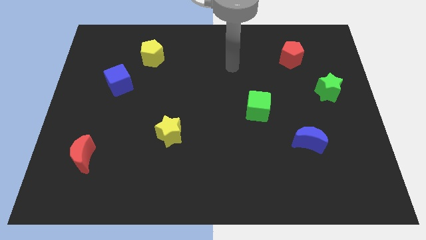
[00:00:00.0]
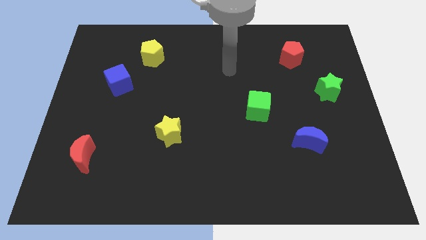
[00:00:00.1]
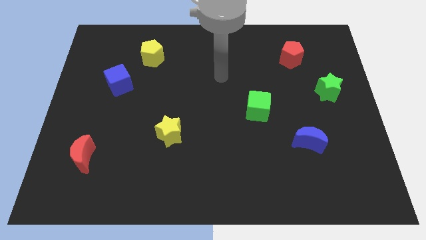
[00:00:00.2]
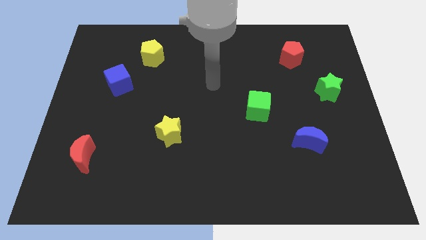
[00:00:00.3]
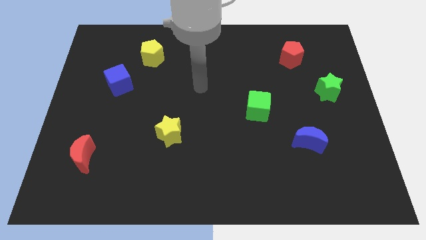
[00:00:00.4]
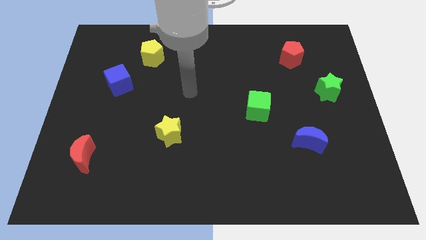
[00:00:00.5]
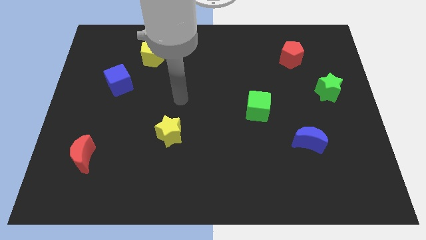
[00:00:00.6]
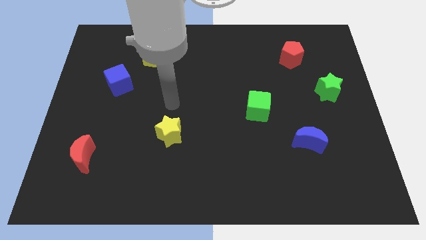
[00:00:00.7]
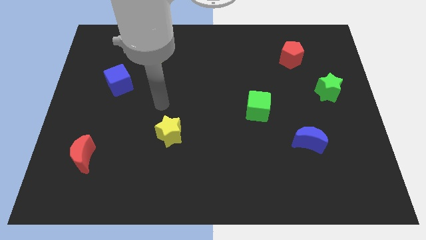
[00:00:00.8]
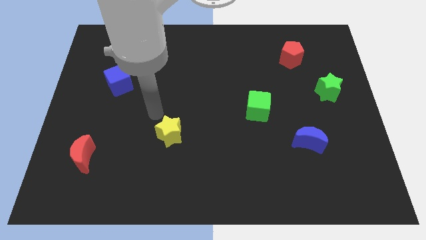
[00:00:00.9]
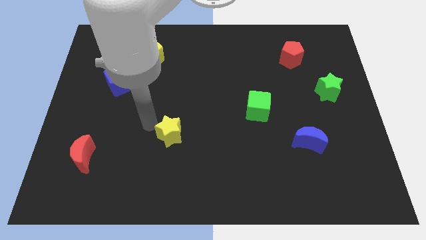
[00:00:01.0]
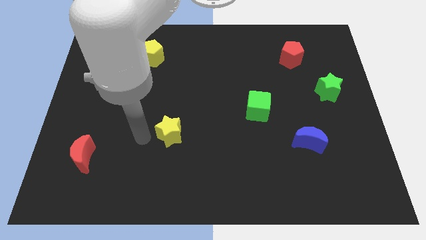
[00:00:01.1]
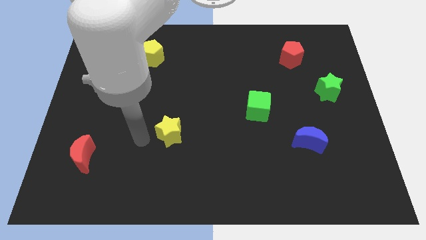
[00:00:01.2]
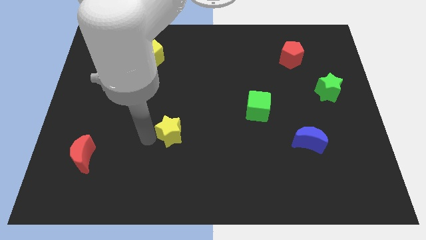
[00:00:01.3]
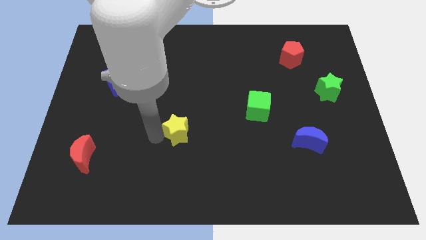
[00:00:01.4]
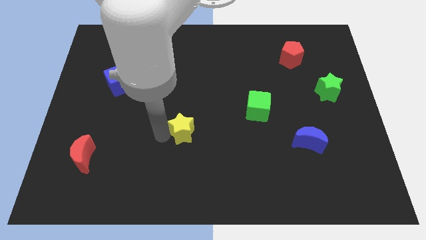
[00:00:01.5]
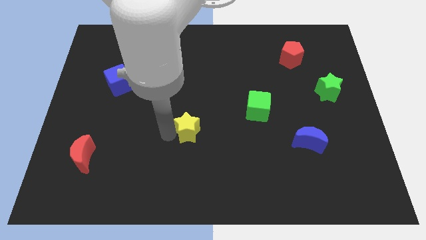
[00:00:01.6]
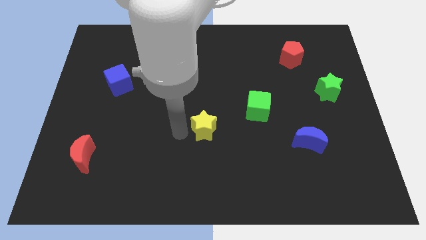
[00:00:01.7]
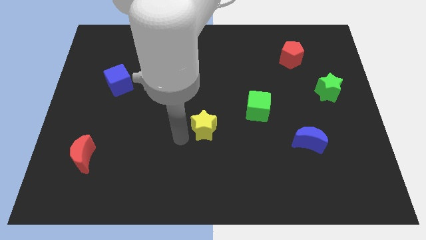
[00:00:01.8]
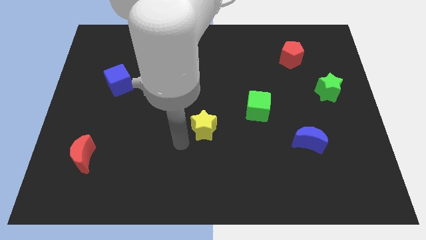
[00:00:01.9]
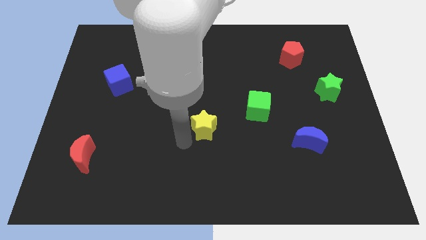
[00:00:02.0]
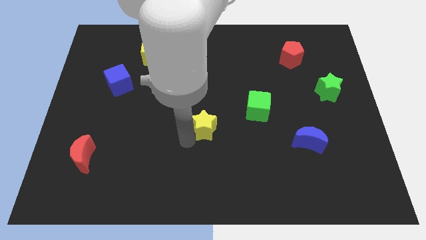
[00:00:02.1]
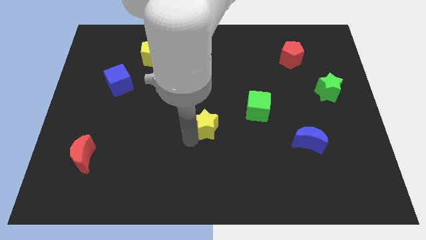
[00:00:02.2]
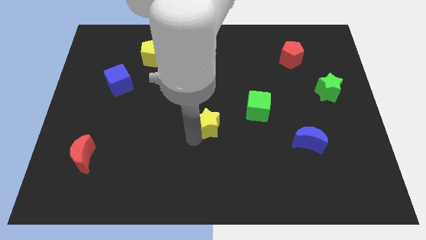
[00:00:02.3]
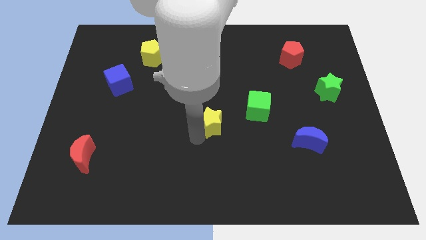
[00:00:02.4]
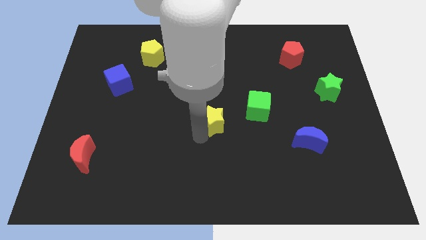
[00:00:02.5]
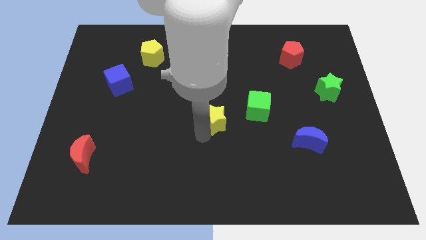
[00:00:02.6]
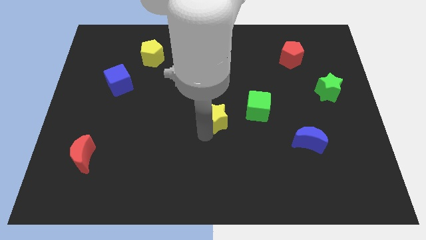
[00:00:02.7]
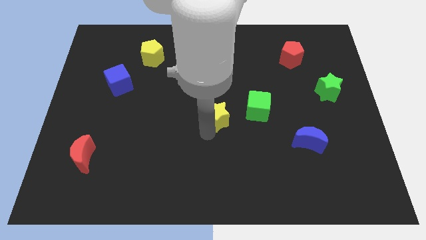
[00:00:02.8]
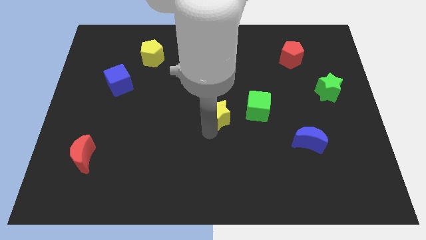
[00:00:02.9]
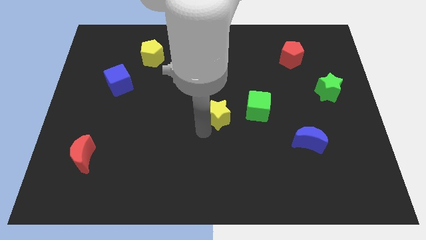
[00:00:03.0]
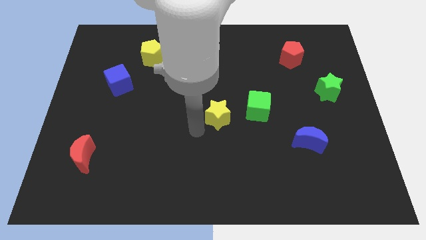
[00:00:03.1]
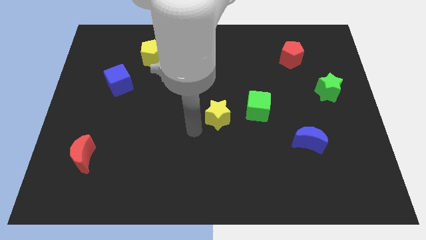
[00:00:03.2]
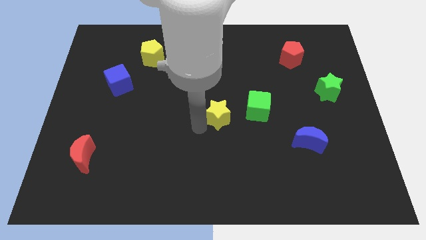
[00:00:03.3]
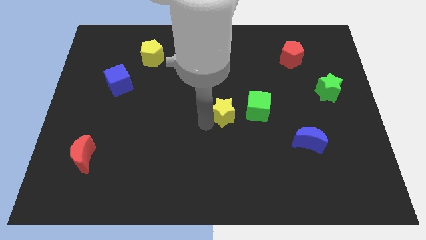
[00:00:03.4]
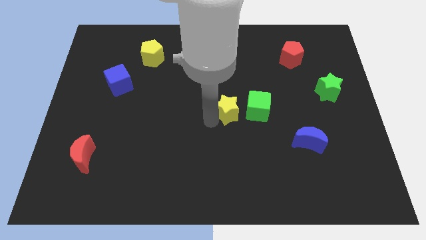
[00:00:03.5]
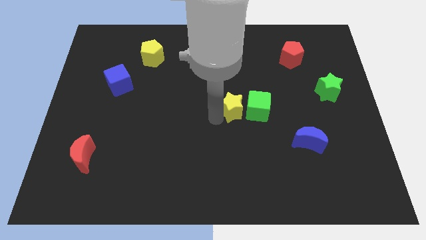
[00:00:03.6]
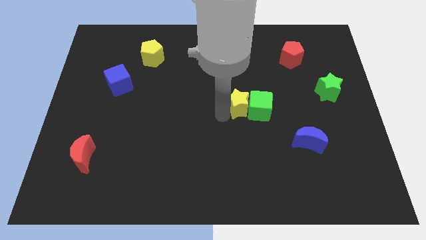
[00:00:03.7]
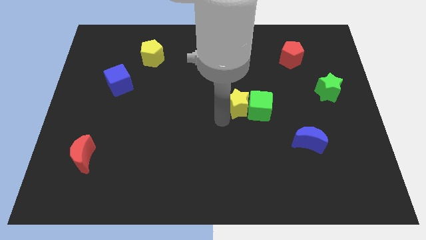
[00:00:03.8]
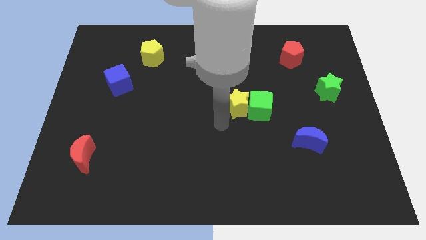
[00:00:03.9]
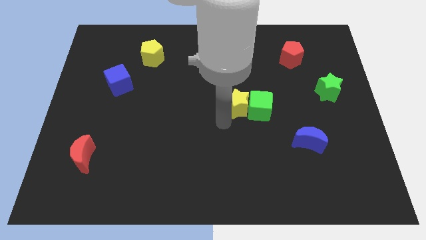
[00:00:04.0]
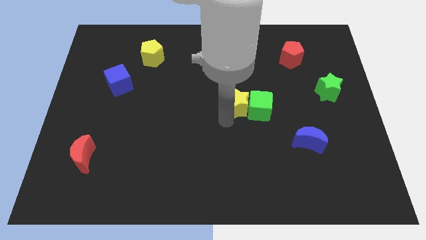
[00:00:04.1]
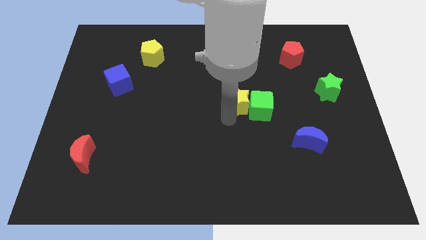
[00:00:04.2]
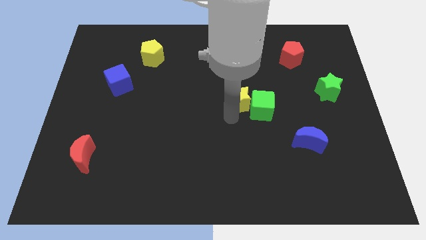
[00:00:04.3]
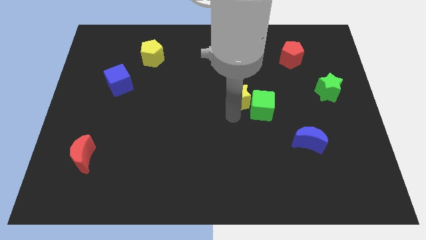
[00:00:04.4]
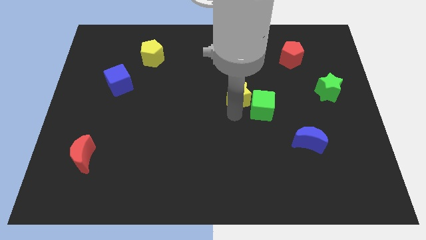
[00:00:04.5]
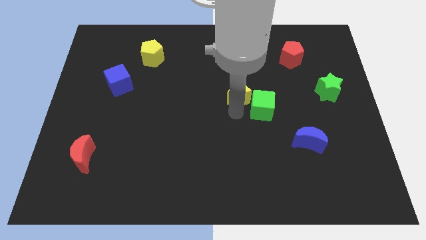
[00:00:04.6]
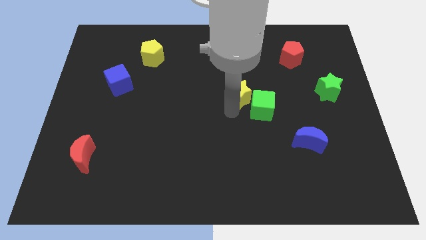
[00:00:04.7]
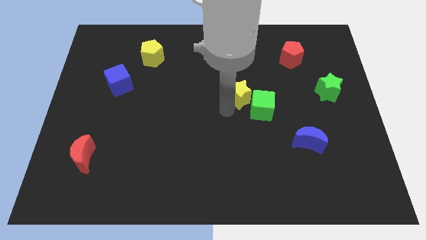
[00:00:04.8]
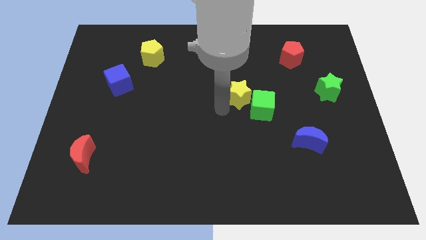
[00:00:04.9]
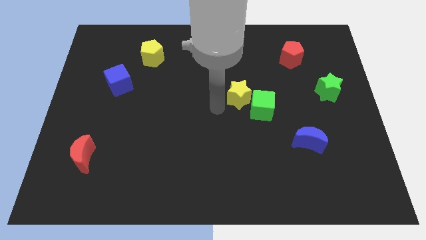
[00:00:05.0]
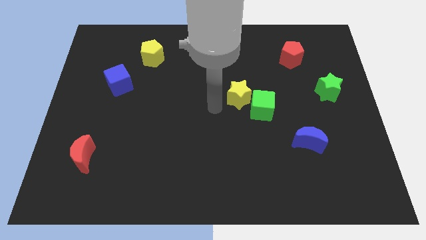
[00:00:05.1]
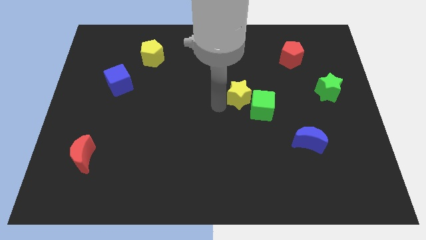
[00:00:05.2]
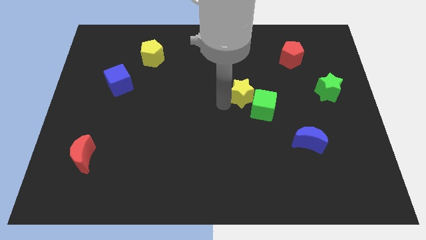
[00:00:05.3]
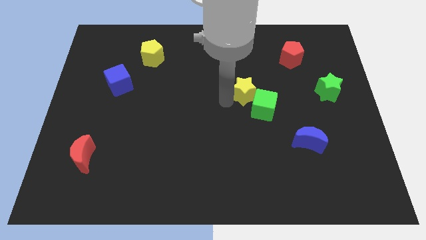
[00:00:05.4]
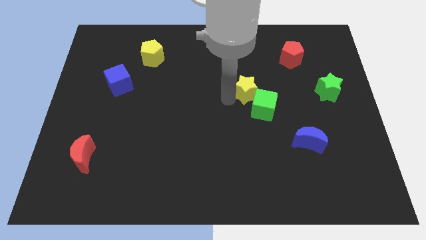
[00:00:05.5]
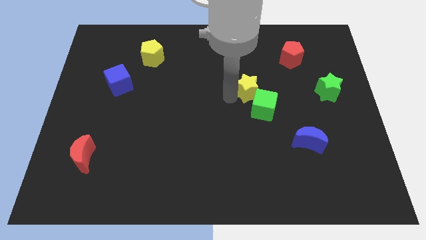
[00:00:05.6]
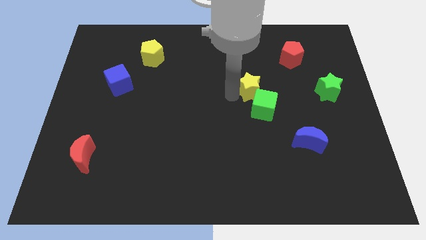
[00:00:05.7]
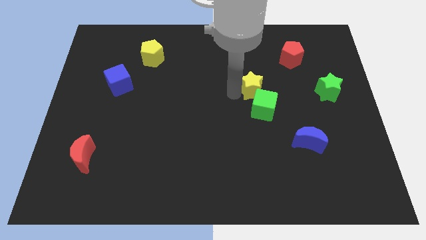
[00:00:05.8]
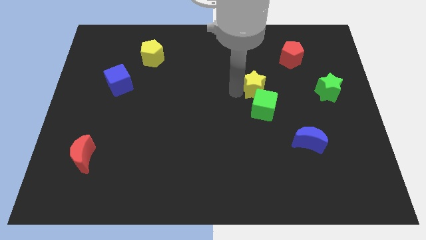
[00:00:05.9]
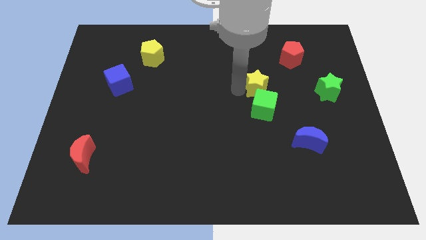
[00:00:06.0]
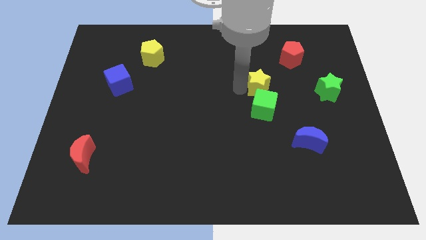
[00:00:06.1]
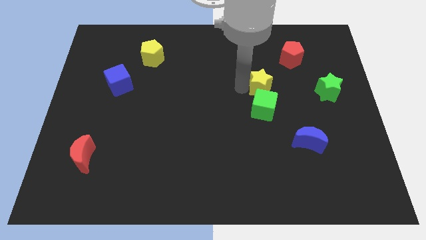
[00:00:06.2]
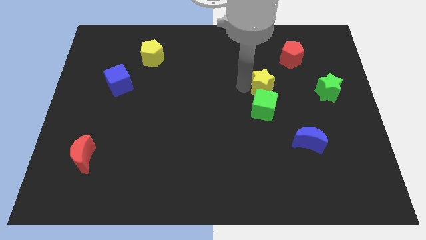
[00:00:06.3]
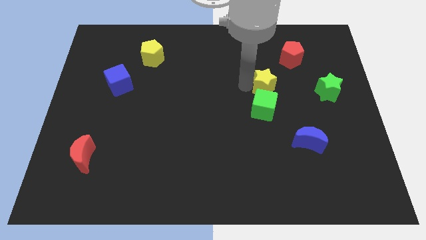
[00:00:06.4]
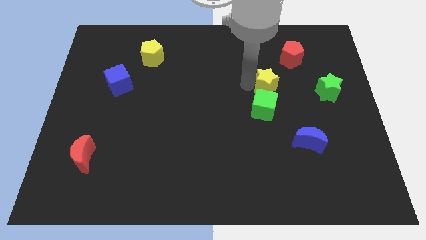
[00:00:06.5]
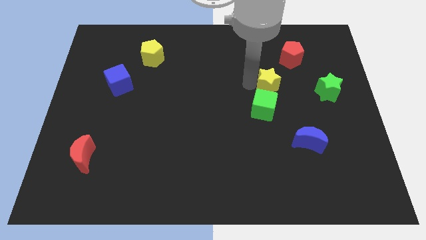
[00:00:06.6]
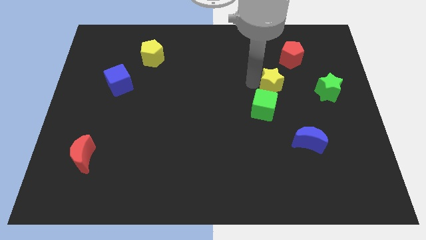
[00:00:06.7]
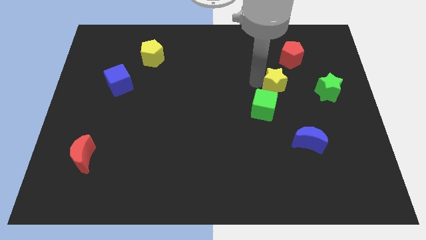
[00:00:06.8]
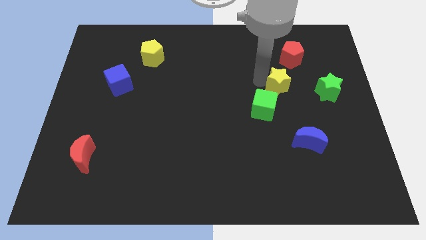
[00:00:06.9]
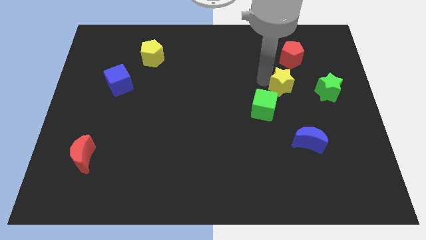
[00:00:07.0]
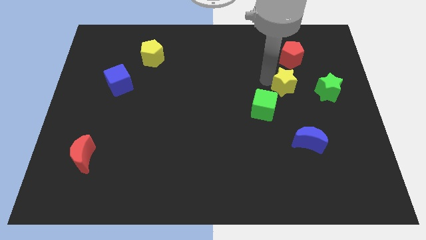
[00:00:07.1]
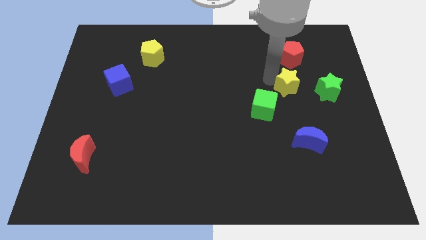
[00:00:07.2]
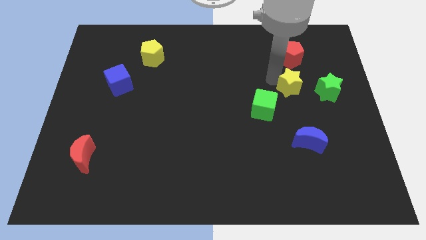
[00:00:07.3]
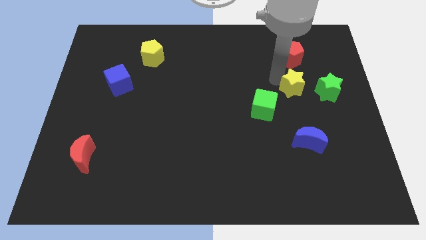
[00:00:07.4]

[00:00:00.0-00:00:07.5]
move the yellow star to the top of the blue moon

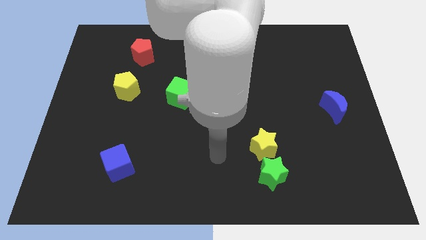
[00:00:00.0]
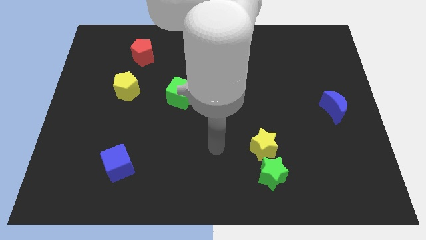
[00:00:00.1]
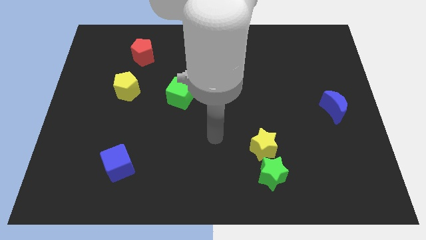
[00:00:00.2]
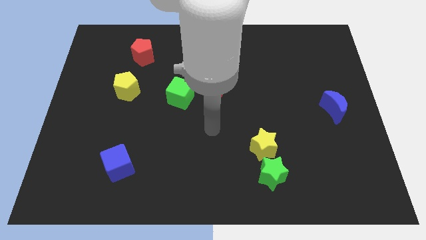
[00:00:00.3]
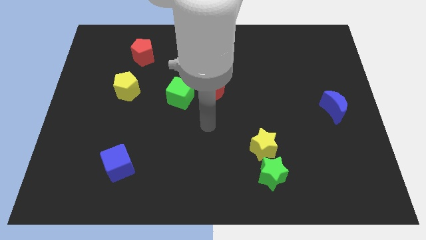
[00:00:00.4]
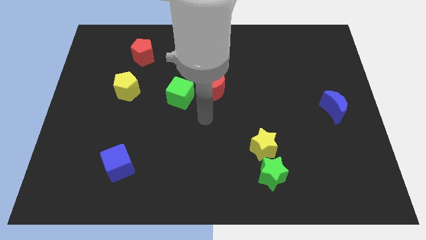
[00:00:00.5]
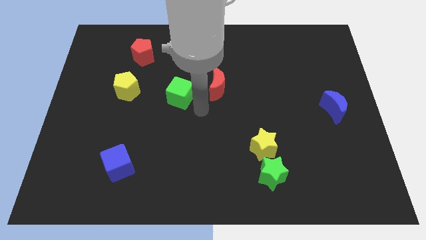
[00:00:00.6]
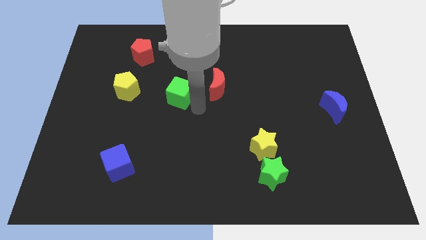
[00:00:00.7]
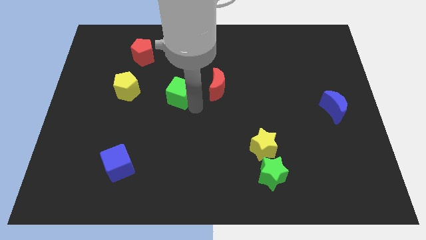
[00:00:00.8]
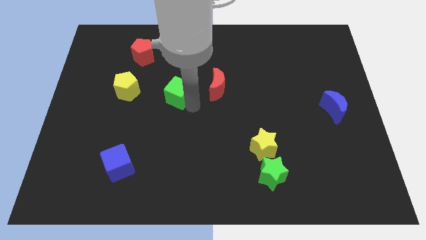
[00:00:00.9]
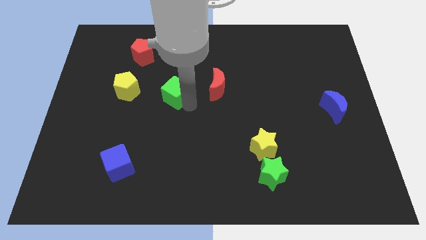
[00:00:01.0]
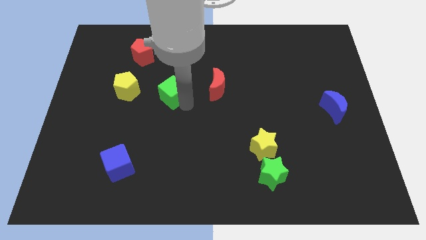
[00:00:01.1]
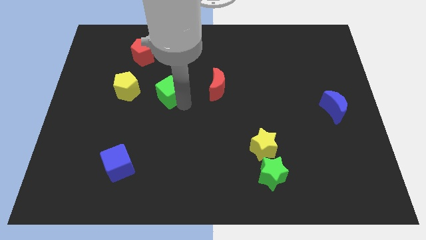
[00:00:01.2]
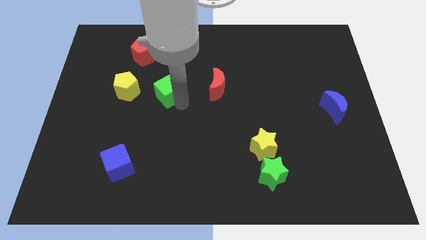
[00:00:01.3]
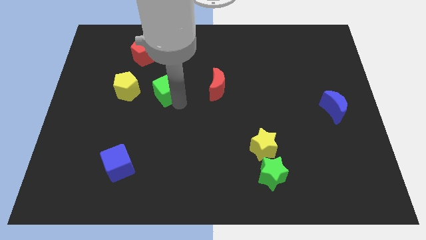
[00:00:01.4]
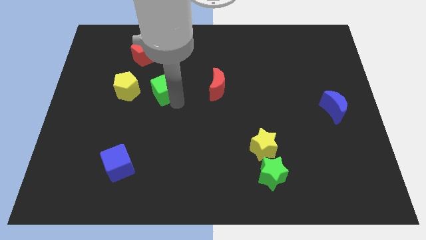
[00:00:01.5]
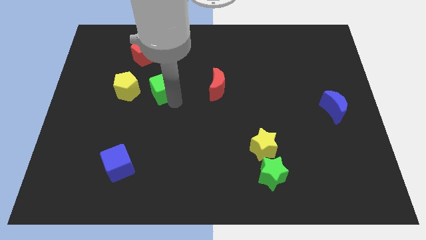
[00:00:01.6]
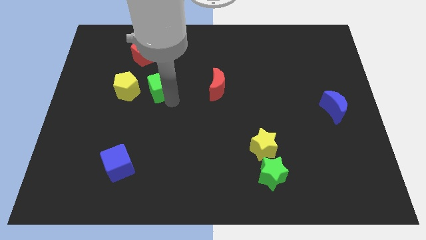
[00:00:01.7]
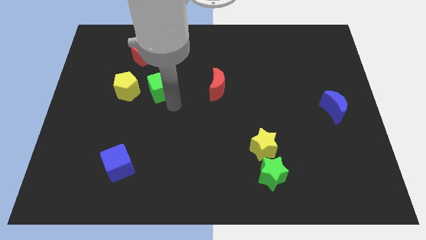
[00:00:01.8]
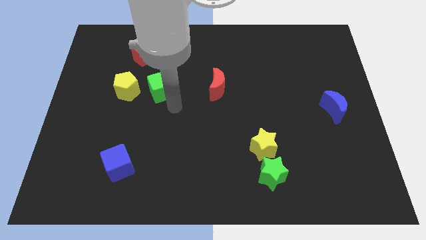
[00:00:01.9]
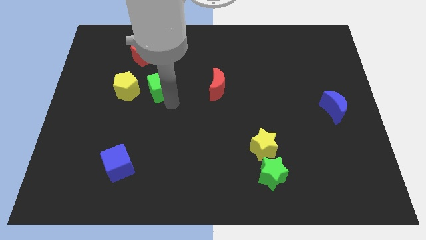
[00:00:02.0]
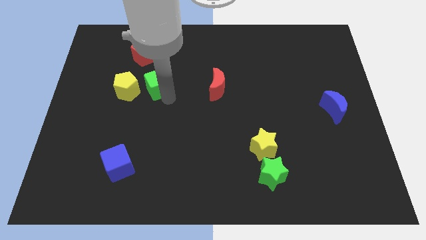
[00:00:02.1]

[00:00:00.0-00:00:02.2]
move the green cube diagonally up and to the right of the yellow pentagon
